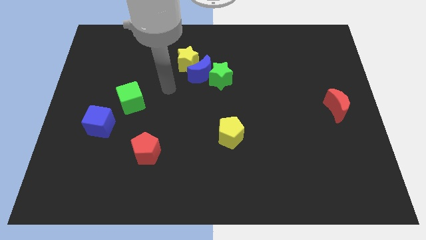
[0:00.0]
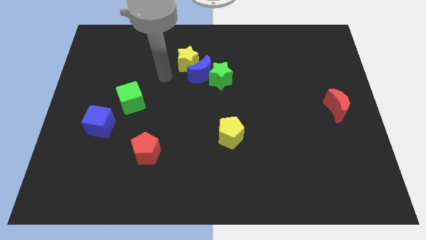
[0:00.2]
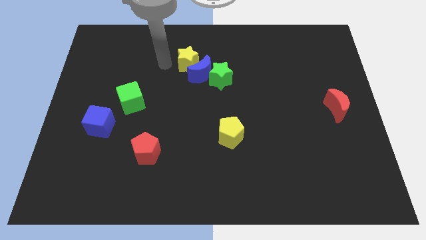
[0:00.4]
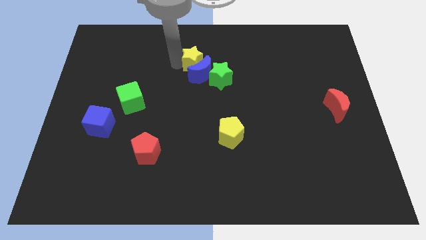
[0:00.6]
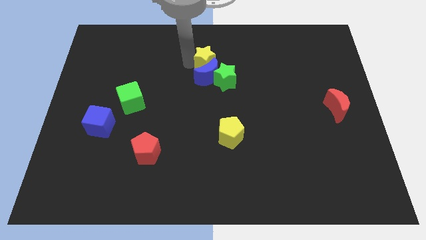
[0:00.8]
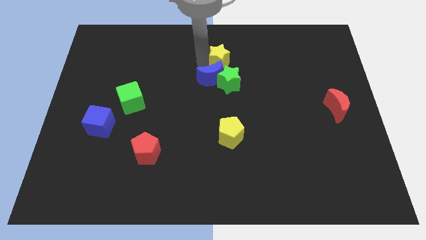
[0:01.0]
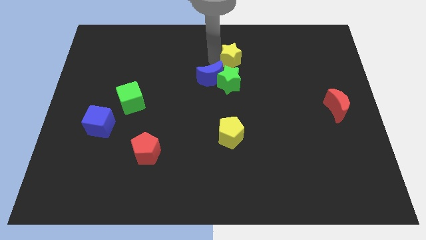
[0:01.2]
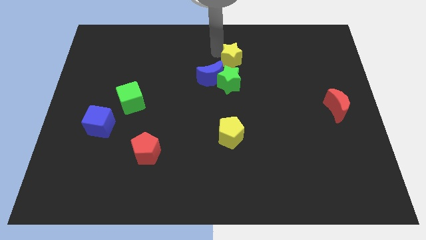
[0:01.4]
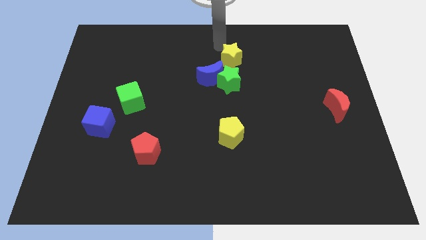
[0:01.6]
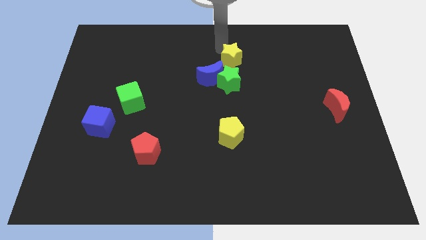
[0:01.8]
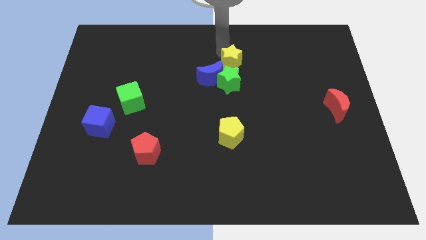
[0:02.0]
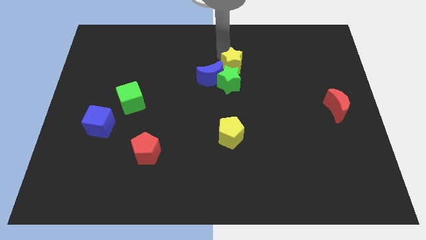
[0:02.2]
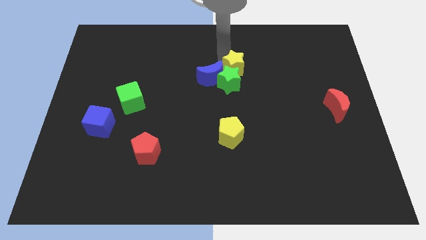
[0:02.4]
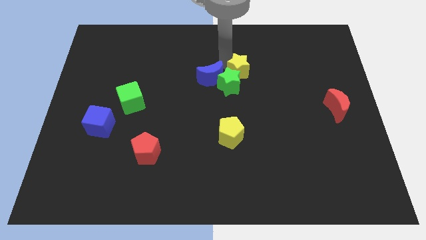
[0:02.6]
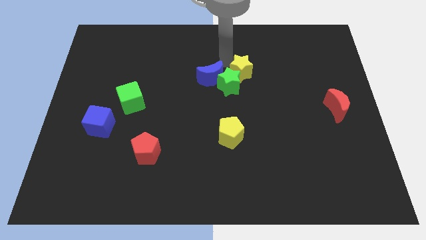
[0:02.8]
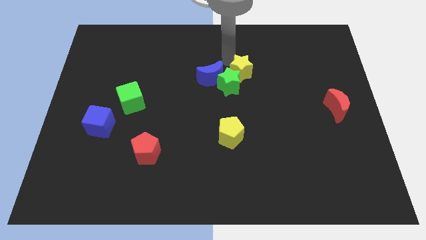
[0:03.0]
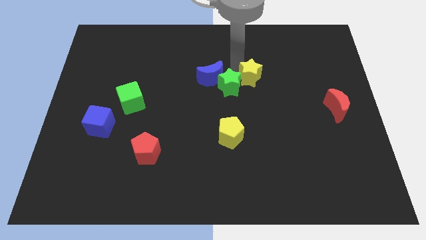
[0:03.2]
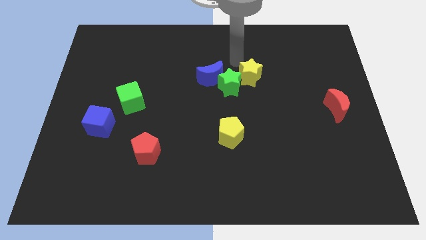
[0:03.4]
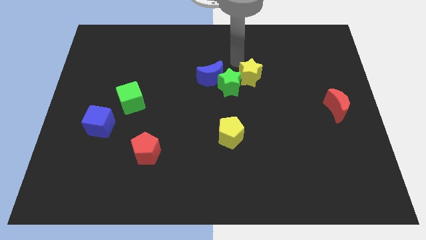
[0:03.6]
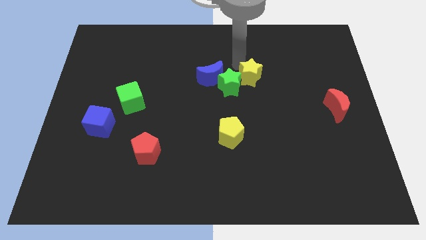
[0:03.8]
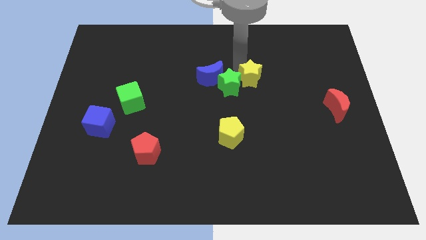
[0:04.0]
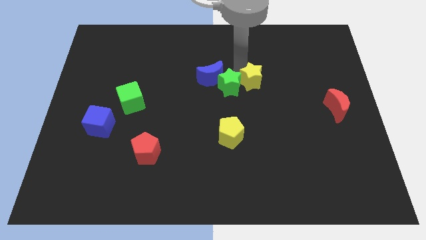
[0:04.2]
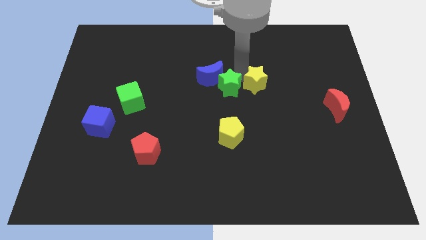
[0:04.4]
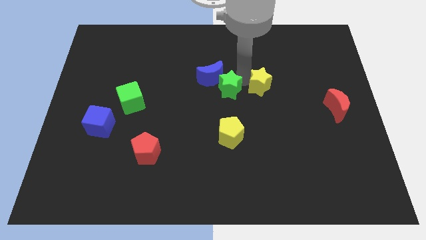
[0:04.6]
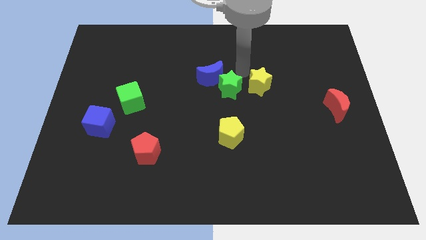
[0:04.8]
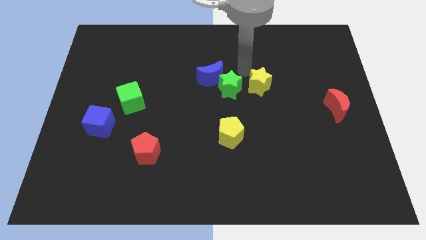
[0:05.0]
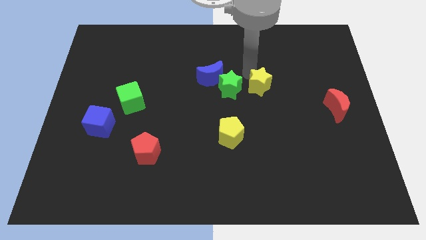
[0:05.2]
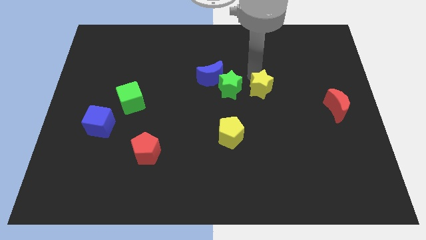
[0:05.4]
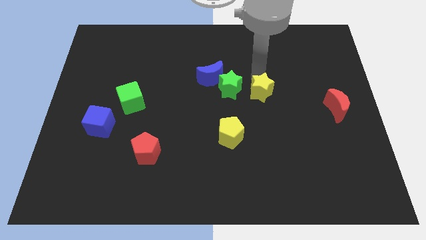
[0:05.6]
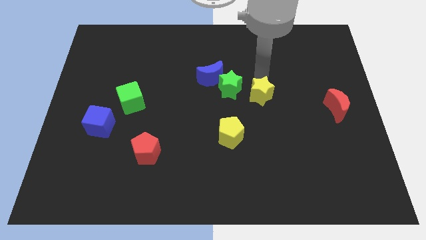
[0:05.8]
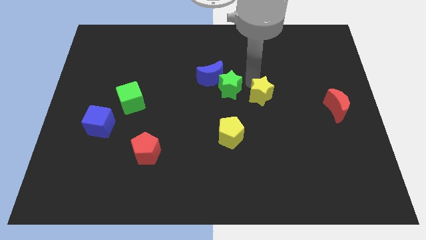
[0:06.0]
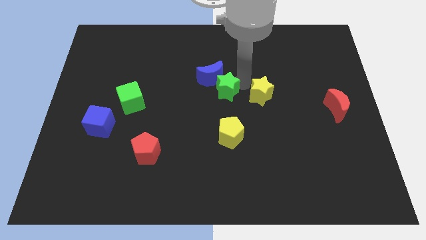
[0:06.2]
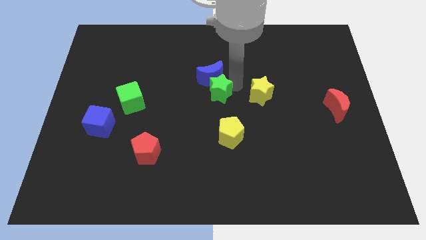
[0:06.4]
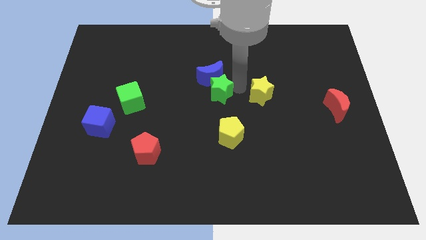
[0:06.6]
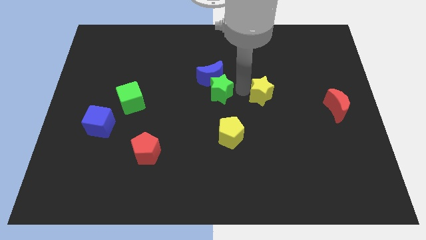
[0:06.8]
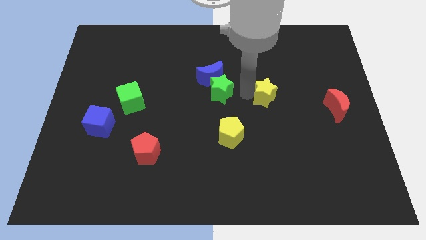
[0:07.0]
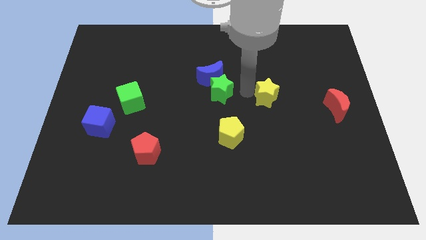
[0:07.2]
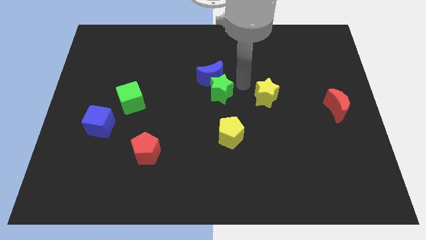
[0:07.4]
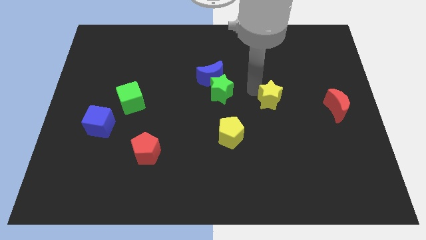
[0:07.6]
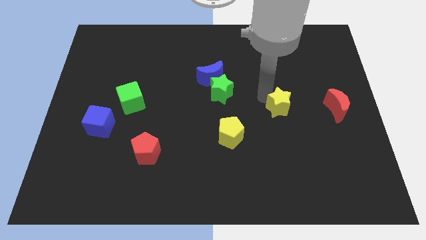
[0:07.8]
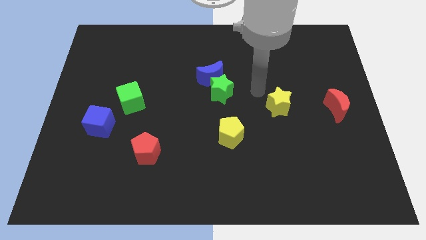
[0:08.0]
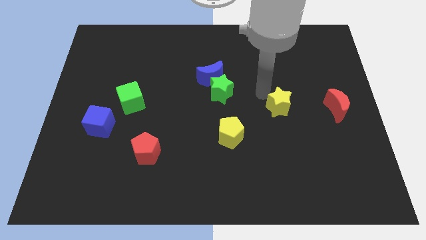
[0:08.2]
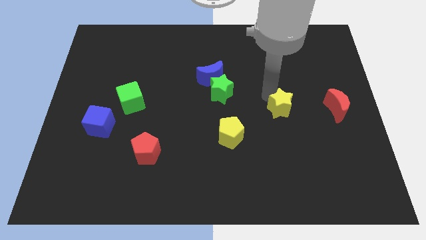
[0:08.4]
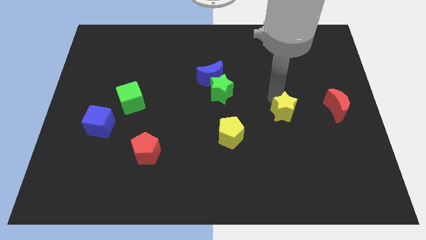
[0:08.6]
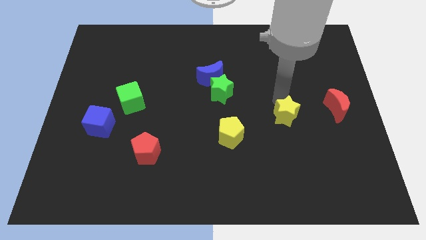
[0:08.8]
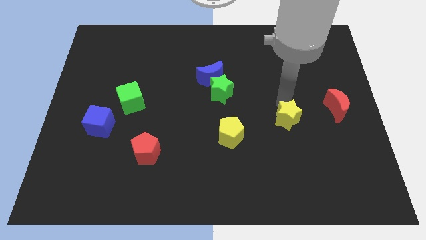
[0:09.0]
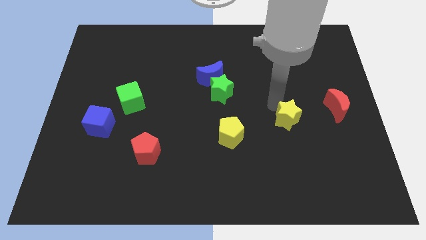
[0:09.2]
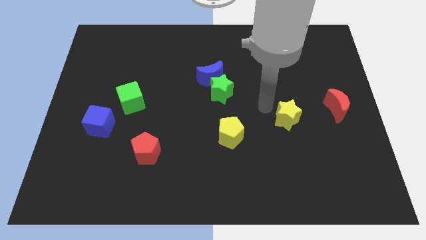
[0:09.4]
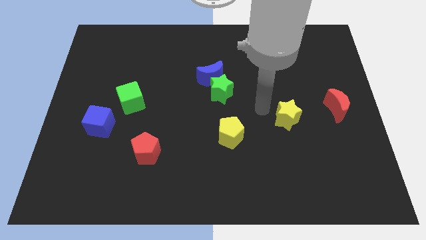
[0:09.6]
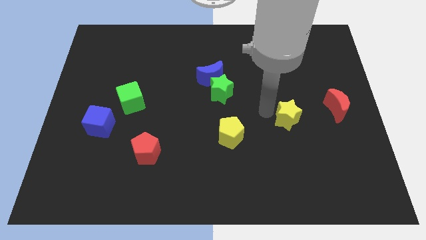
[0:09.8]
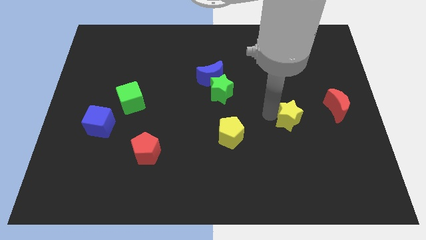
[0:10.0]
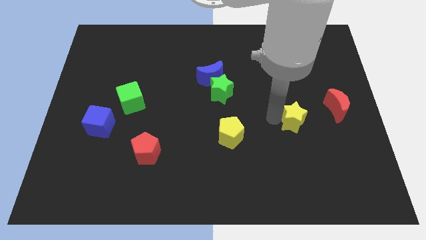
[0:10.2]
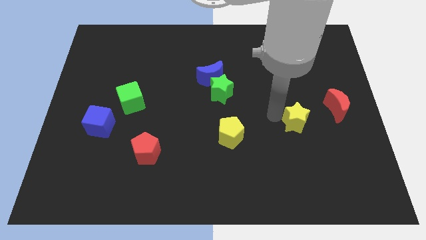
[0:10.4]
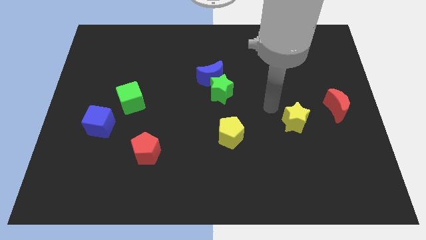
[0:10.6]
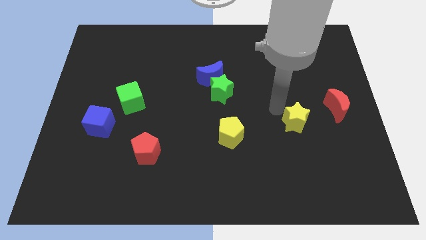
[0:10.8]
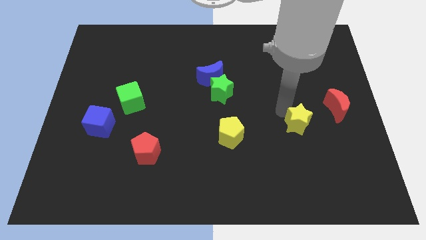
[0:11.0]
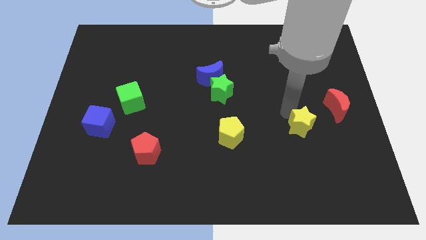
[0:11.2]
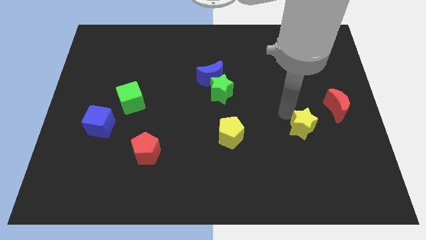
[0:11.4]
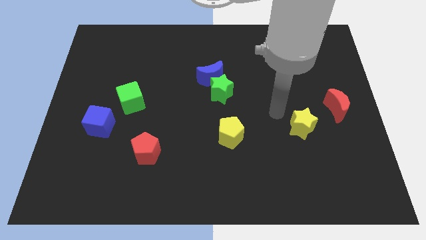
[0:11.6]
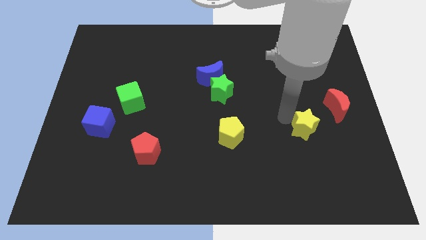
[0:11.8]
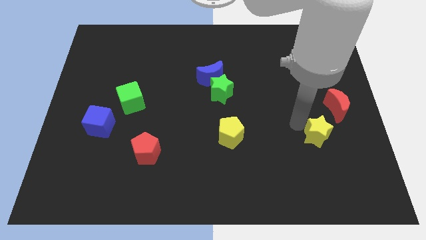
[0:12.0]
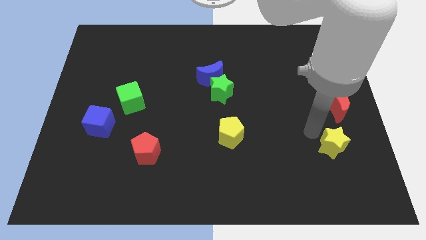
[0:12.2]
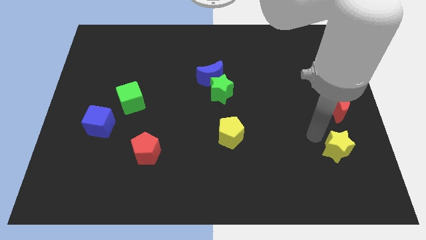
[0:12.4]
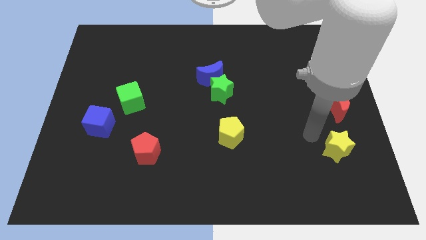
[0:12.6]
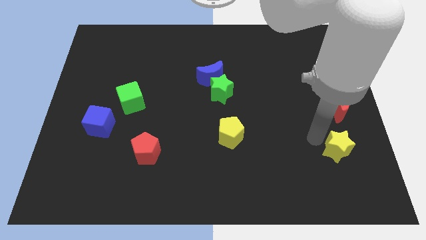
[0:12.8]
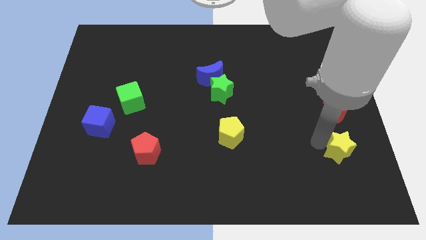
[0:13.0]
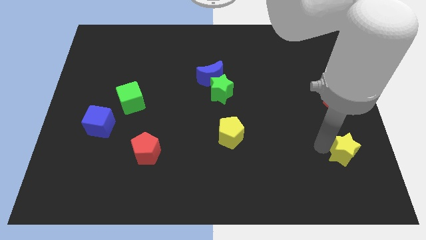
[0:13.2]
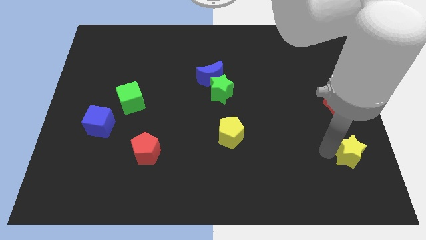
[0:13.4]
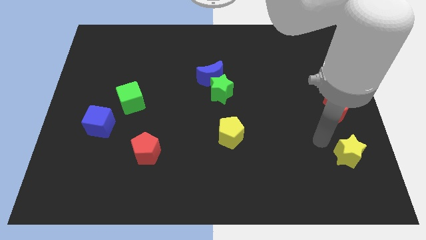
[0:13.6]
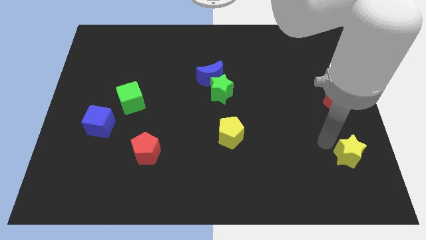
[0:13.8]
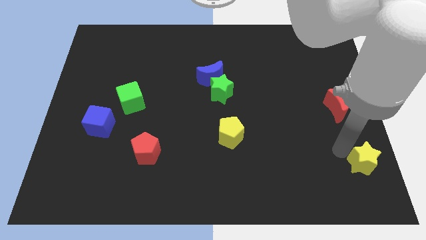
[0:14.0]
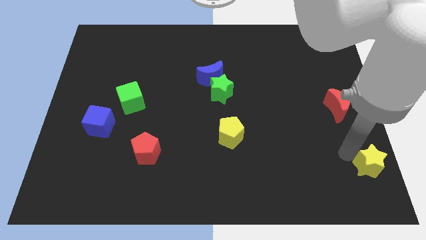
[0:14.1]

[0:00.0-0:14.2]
move the yellow star to the bottom right

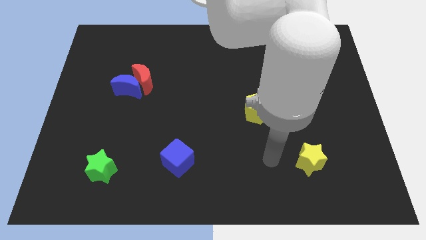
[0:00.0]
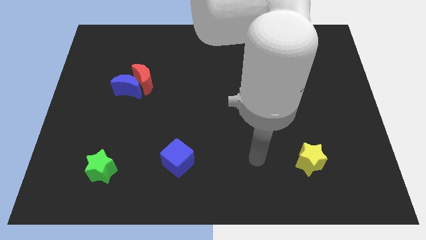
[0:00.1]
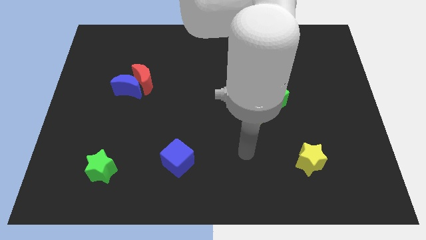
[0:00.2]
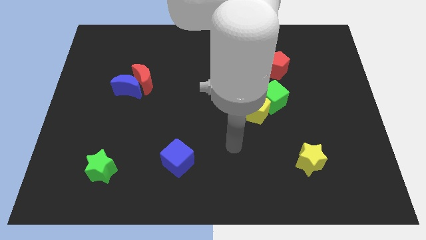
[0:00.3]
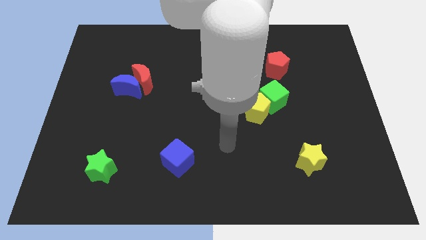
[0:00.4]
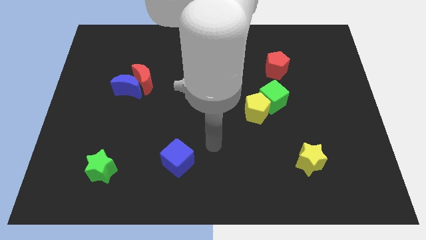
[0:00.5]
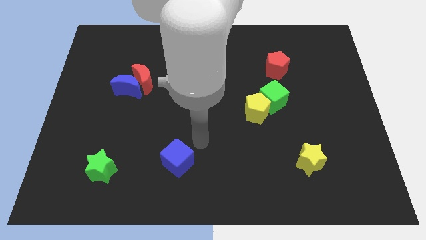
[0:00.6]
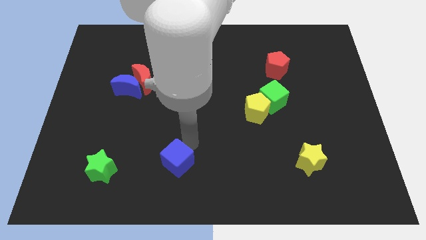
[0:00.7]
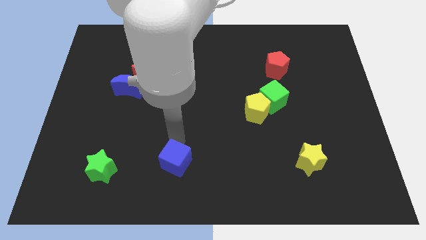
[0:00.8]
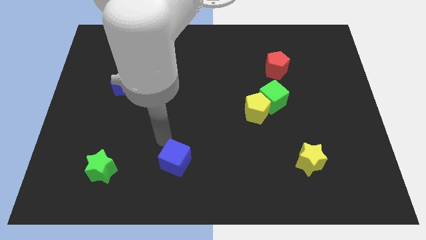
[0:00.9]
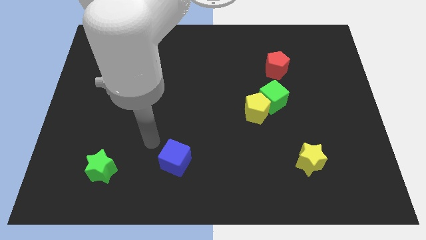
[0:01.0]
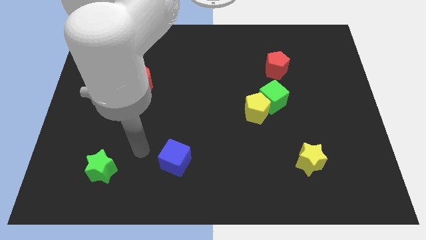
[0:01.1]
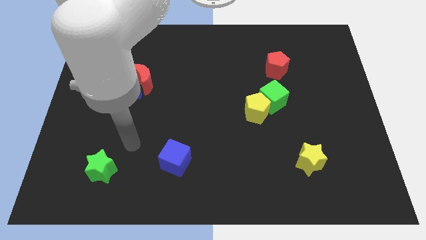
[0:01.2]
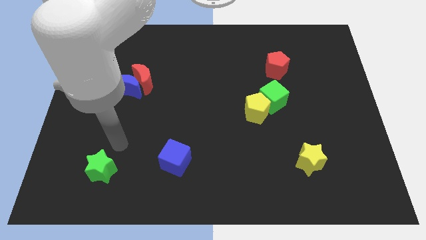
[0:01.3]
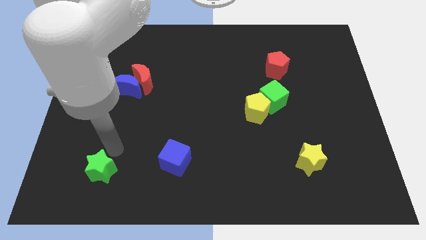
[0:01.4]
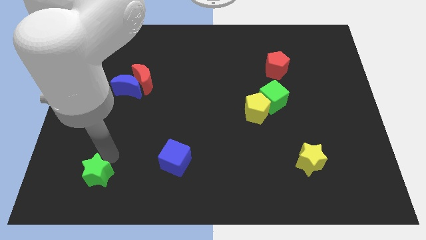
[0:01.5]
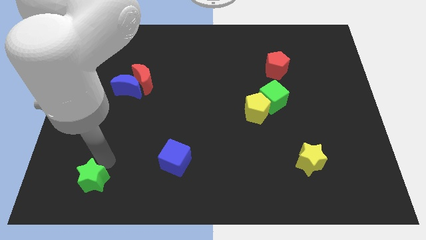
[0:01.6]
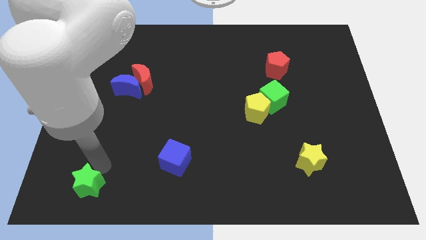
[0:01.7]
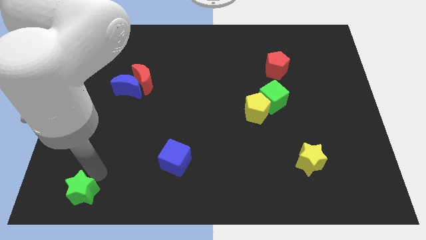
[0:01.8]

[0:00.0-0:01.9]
put the green star to the bottom left of the board
